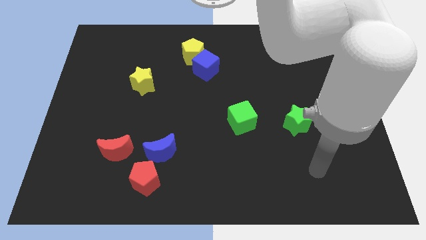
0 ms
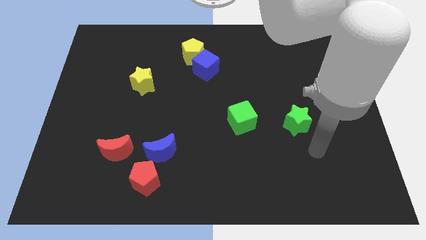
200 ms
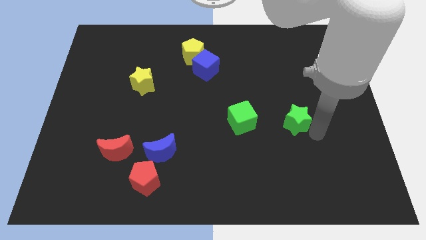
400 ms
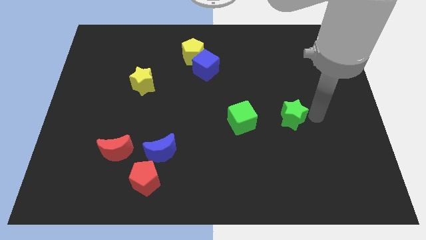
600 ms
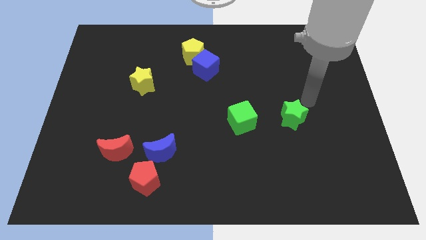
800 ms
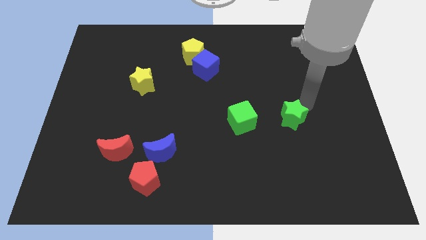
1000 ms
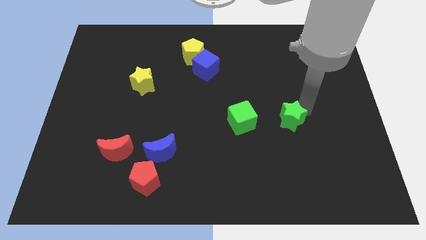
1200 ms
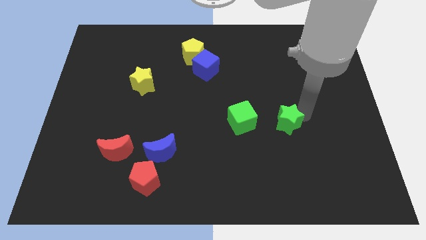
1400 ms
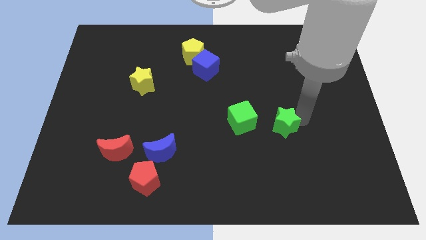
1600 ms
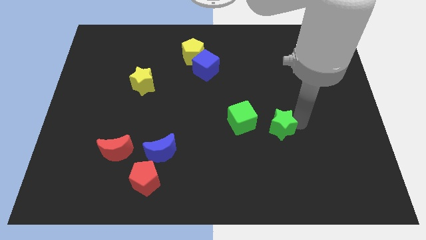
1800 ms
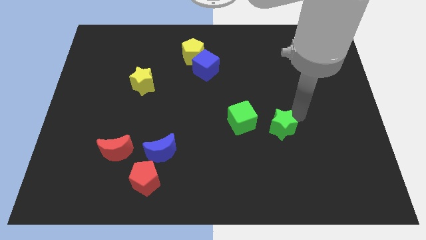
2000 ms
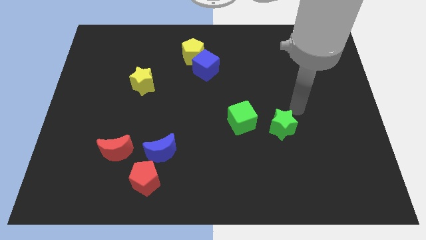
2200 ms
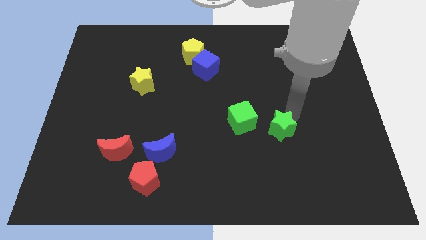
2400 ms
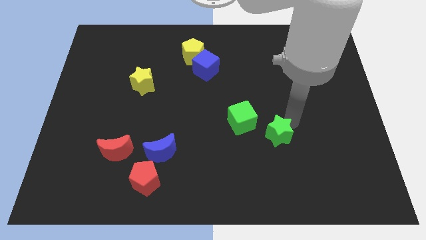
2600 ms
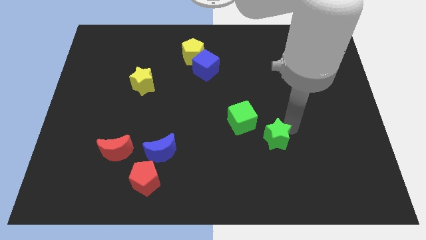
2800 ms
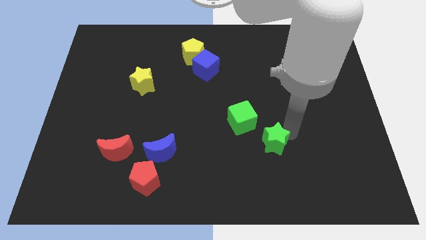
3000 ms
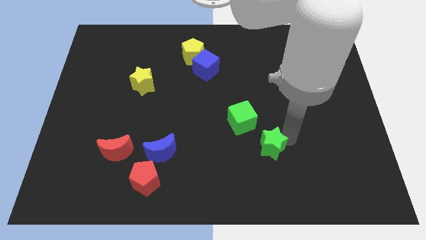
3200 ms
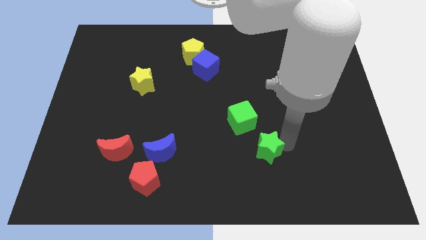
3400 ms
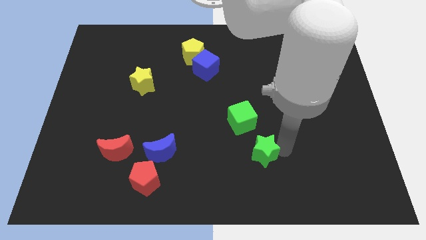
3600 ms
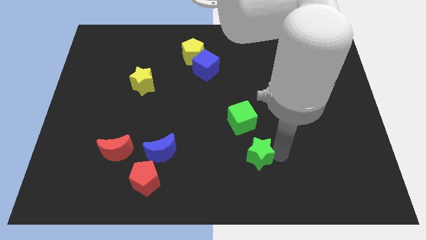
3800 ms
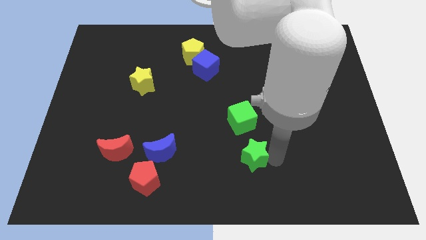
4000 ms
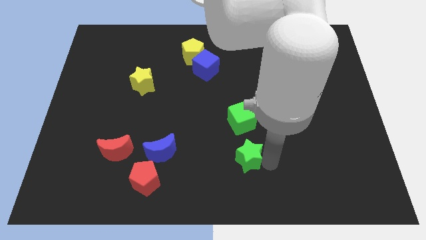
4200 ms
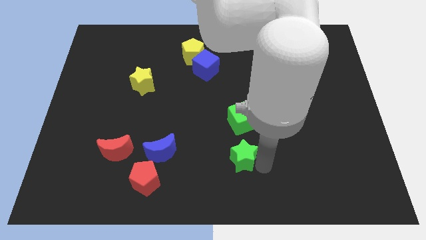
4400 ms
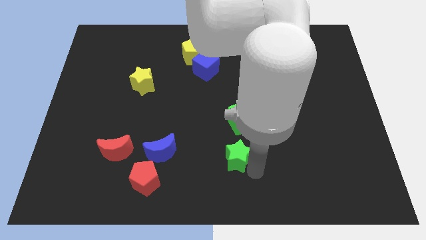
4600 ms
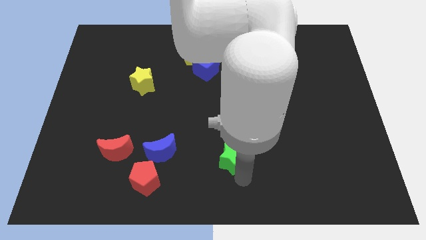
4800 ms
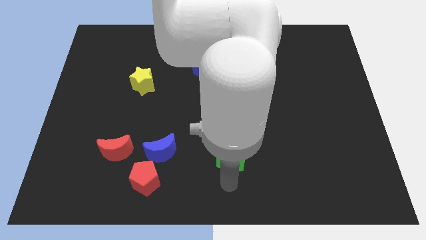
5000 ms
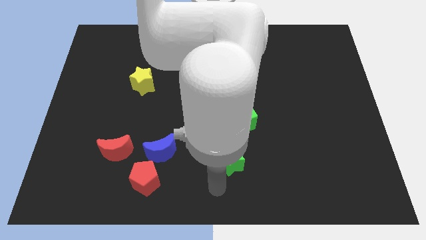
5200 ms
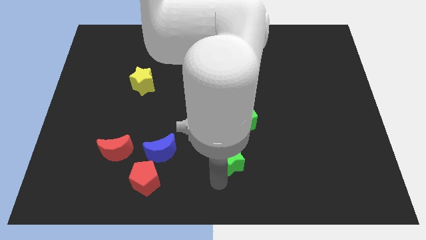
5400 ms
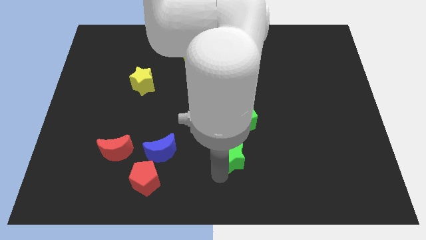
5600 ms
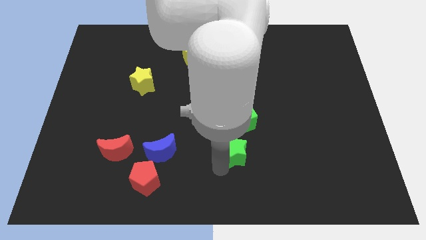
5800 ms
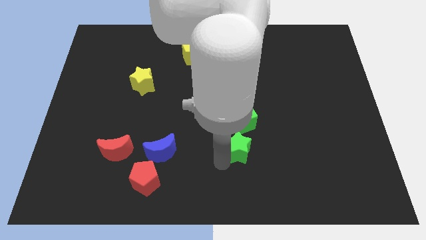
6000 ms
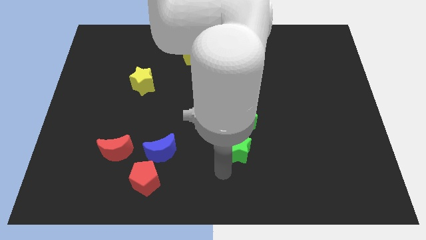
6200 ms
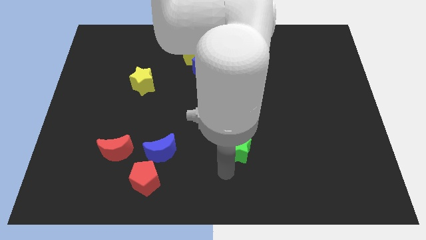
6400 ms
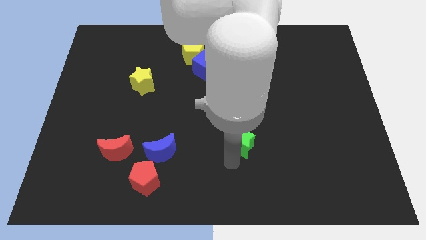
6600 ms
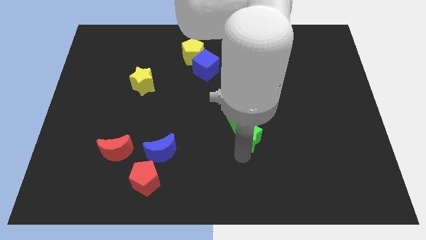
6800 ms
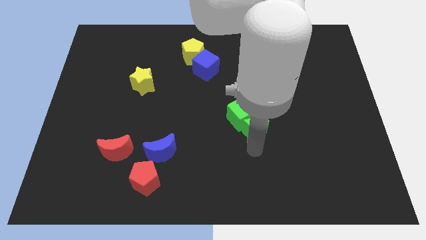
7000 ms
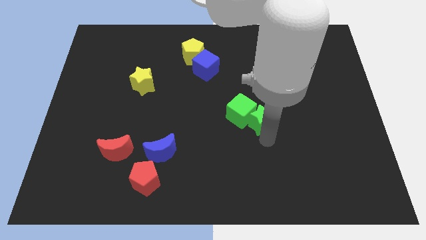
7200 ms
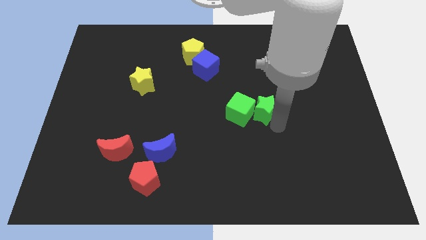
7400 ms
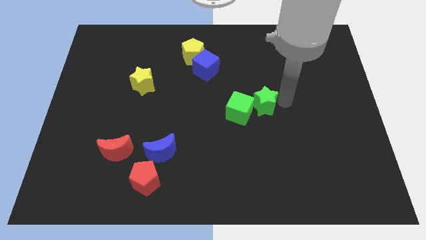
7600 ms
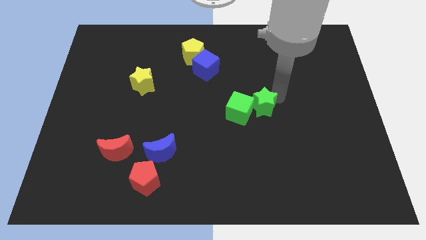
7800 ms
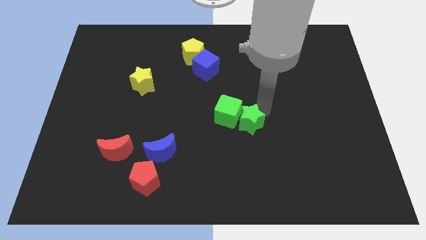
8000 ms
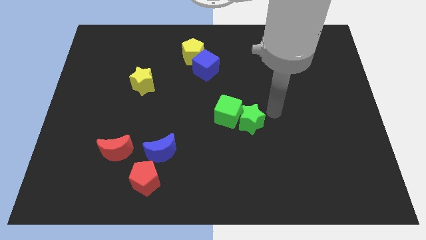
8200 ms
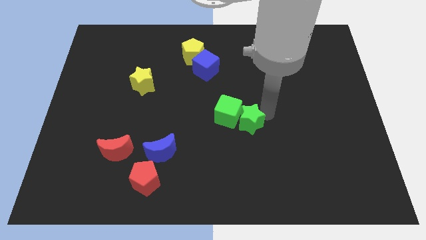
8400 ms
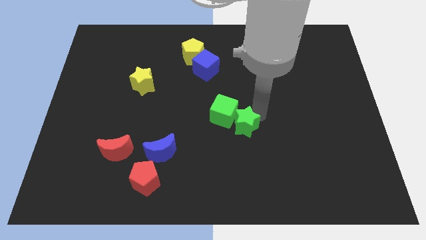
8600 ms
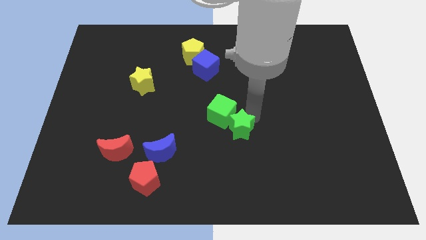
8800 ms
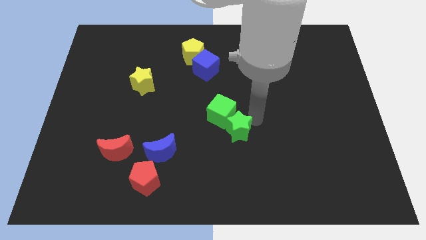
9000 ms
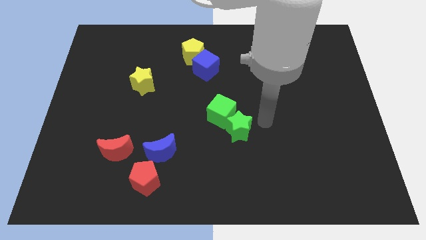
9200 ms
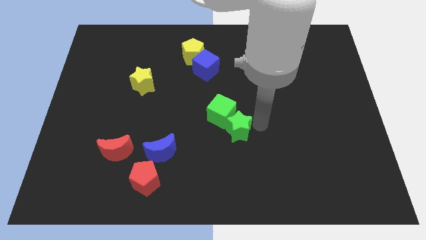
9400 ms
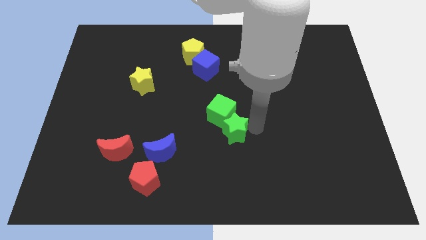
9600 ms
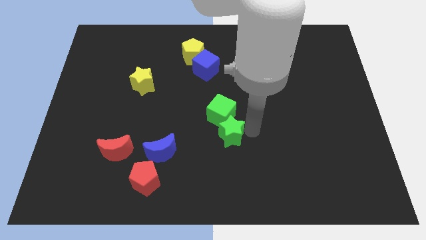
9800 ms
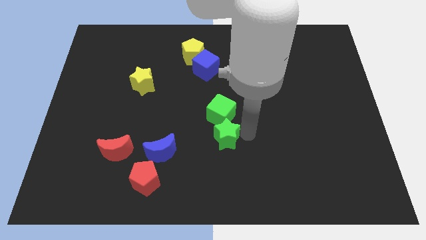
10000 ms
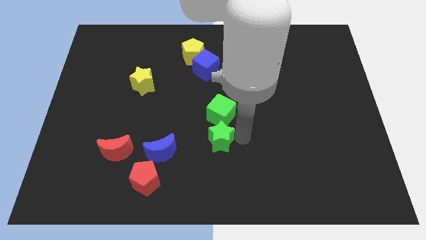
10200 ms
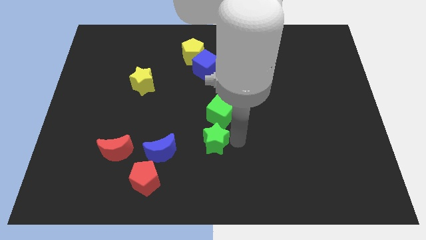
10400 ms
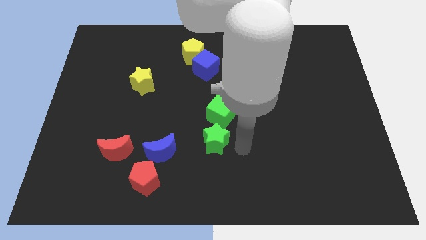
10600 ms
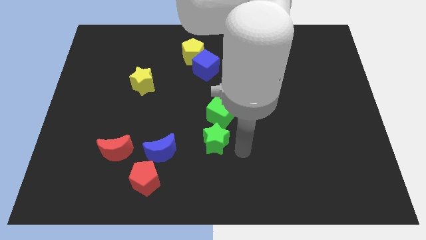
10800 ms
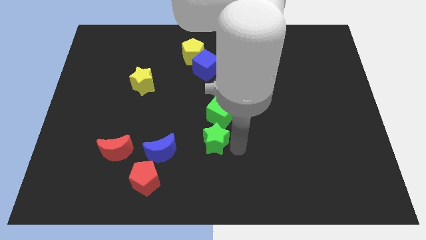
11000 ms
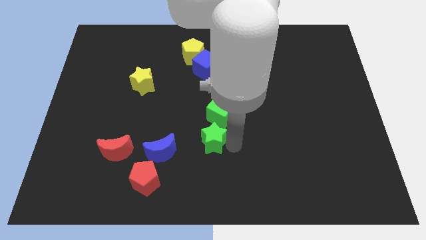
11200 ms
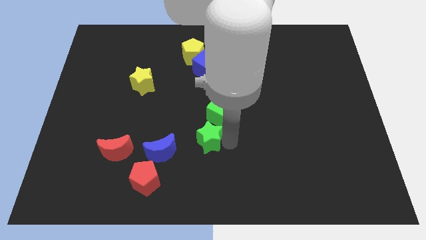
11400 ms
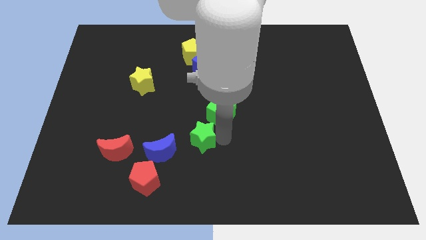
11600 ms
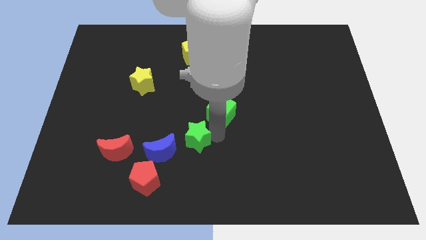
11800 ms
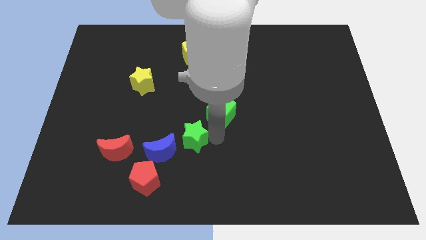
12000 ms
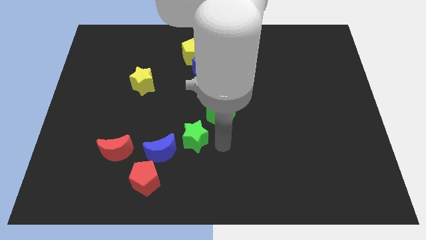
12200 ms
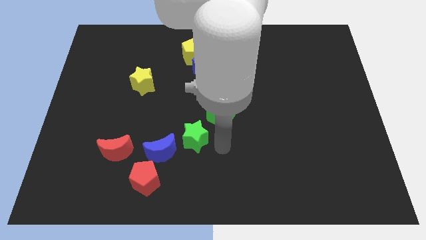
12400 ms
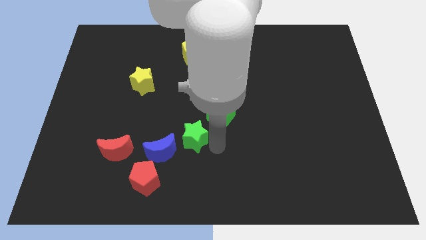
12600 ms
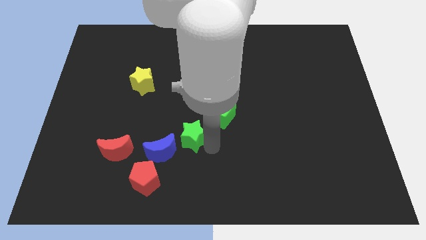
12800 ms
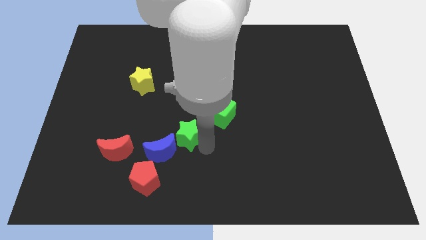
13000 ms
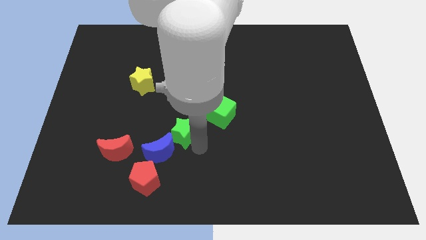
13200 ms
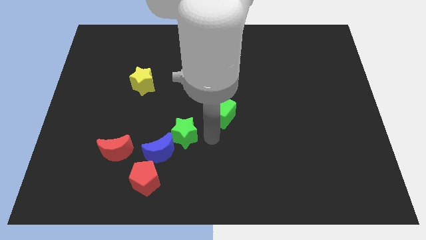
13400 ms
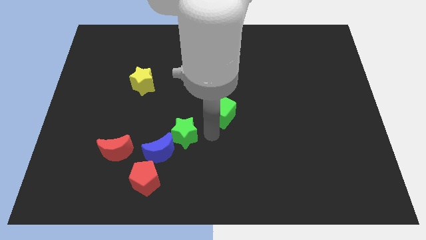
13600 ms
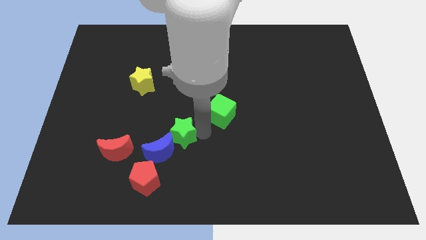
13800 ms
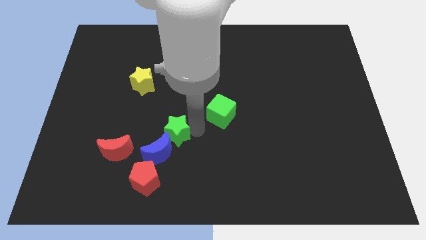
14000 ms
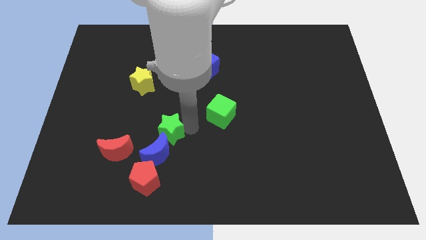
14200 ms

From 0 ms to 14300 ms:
push the green star to the top side of the red pentagon
